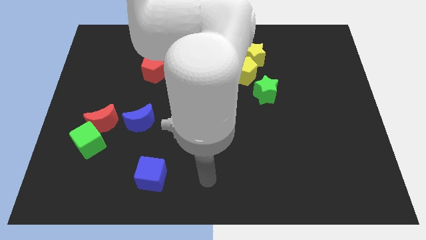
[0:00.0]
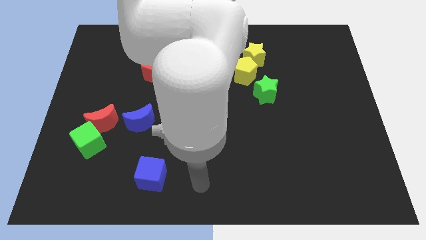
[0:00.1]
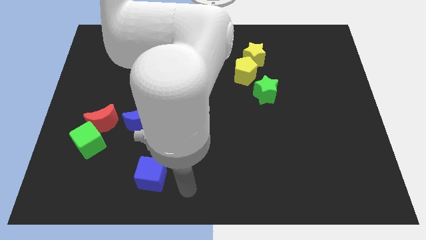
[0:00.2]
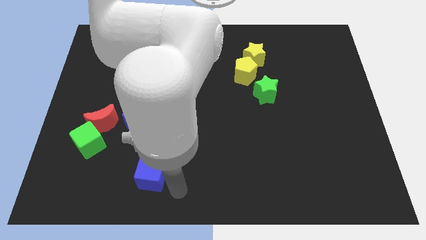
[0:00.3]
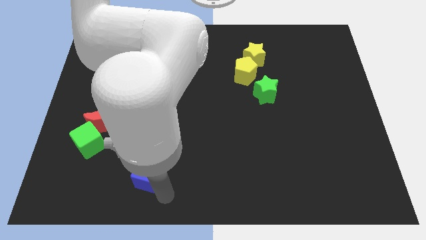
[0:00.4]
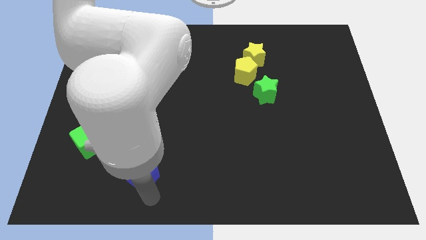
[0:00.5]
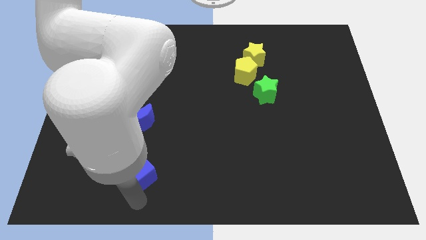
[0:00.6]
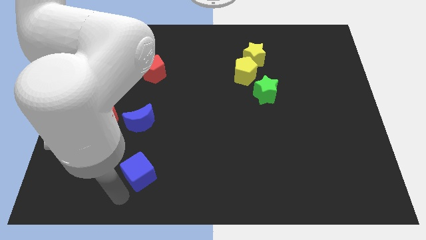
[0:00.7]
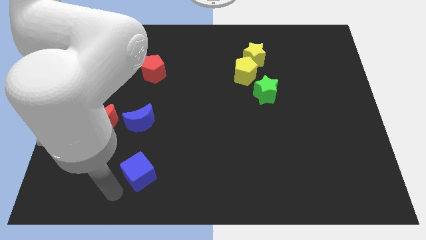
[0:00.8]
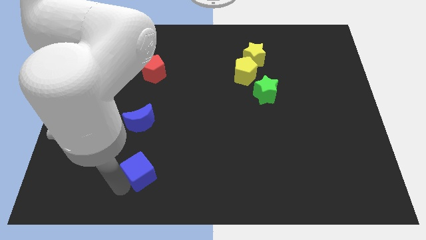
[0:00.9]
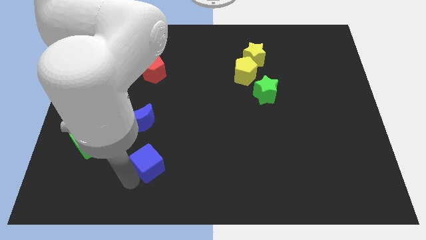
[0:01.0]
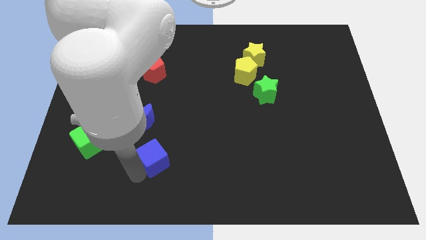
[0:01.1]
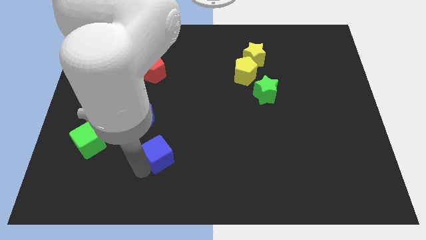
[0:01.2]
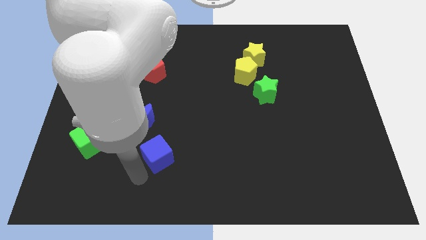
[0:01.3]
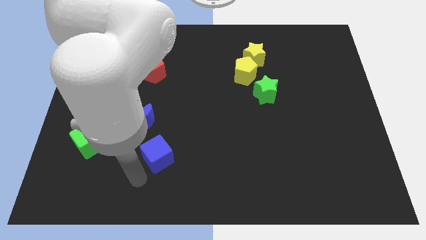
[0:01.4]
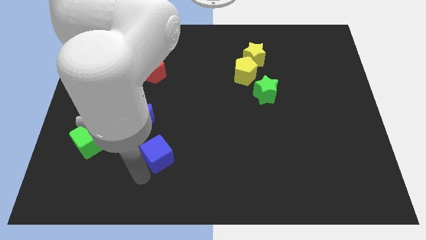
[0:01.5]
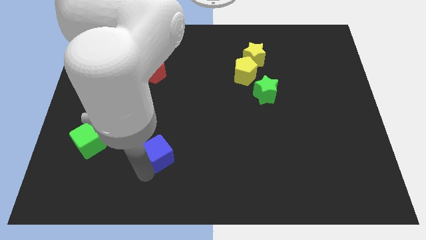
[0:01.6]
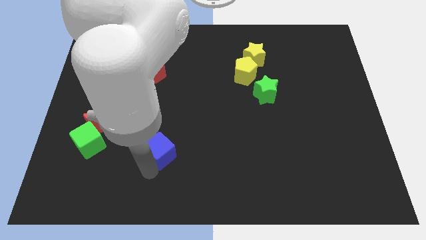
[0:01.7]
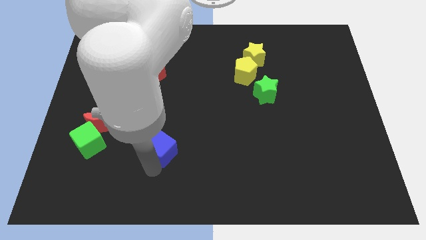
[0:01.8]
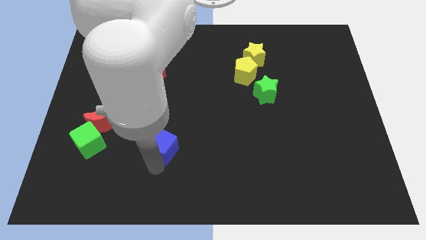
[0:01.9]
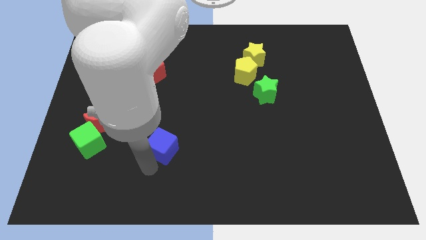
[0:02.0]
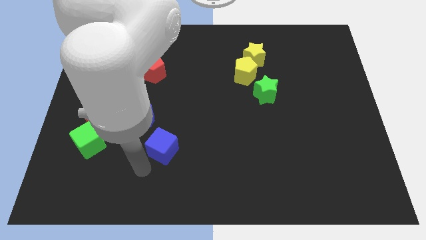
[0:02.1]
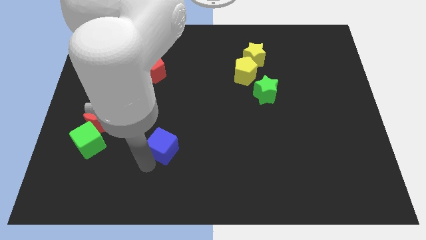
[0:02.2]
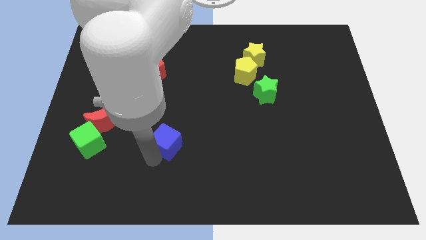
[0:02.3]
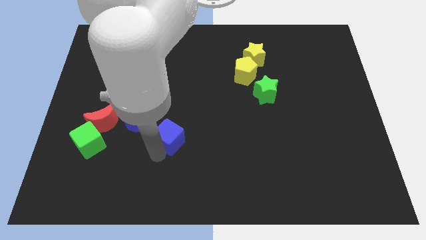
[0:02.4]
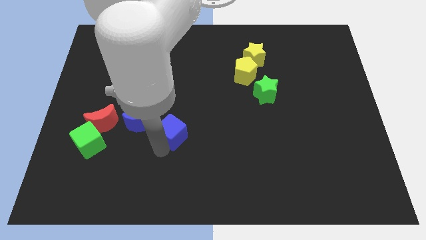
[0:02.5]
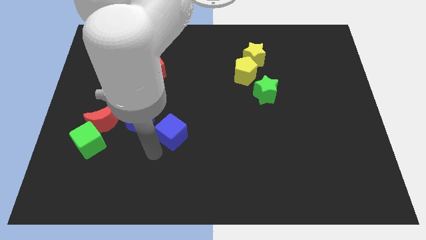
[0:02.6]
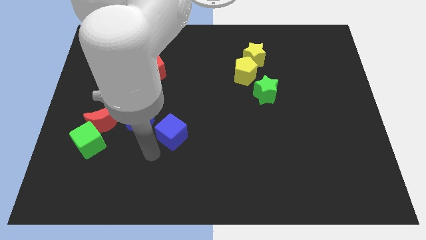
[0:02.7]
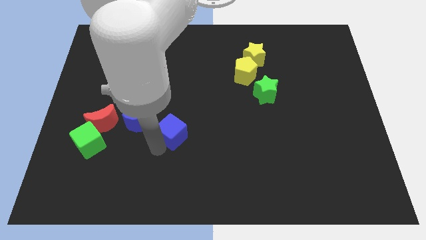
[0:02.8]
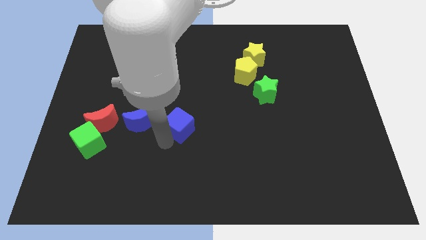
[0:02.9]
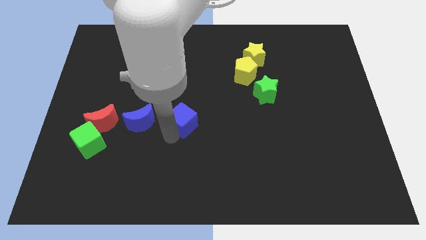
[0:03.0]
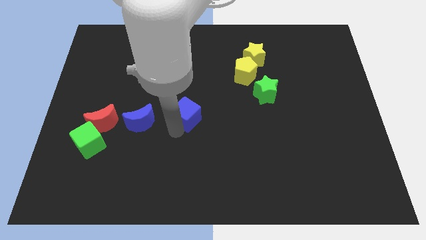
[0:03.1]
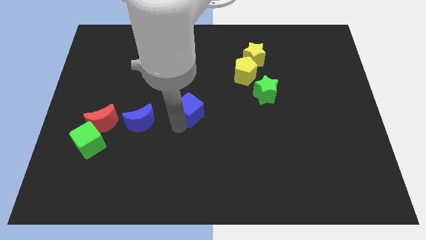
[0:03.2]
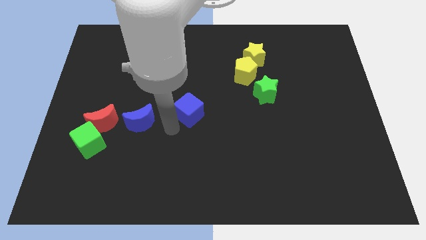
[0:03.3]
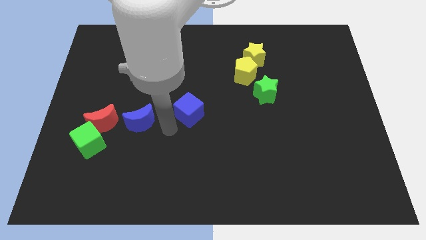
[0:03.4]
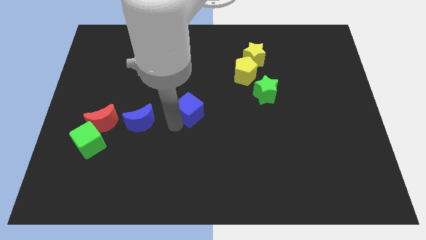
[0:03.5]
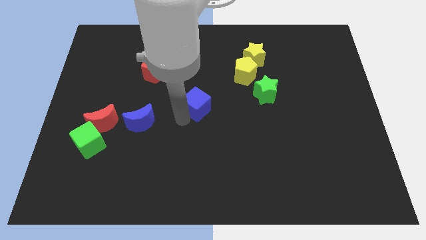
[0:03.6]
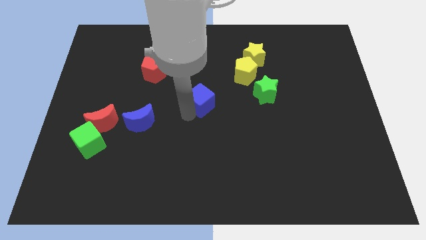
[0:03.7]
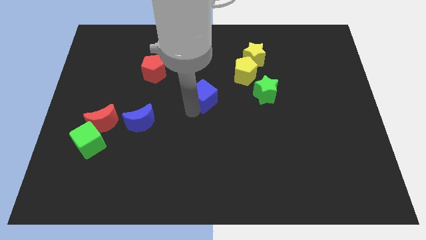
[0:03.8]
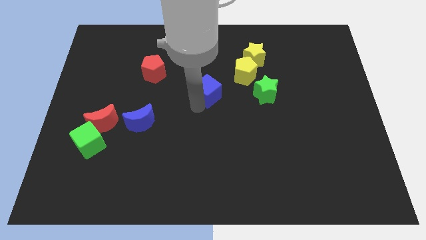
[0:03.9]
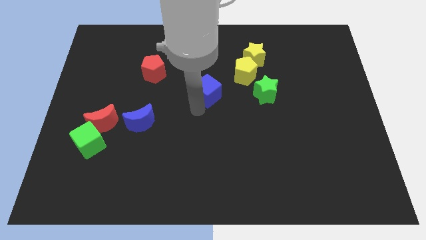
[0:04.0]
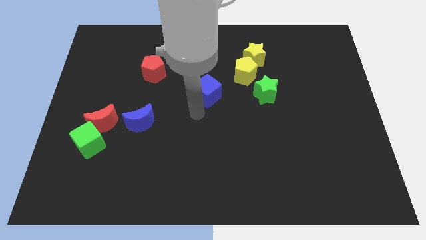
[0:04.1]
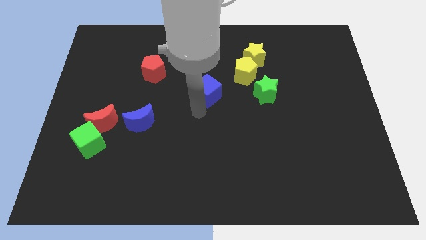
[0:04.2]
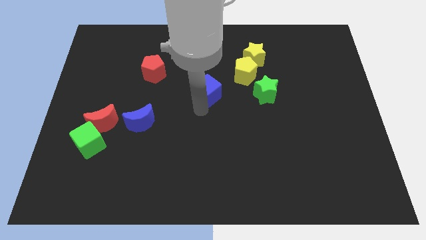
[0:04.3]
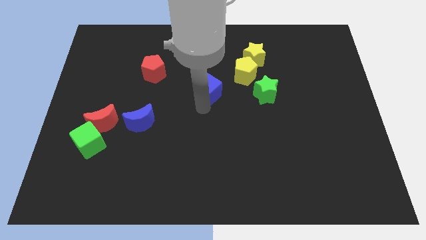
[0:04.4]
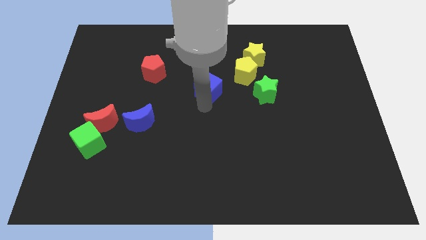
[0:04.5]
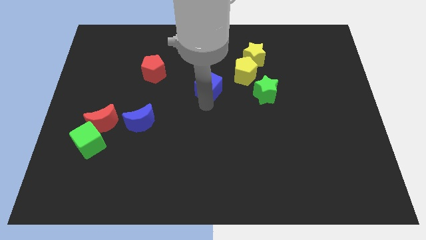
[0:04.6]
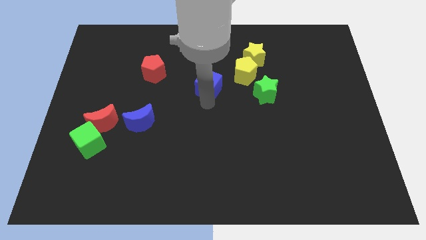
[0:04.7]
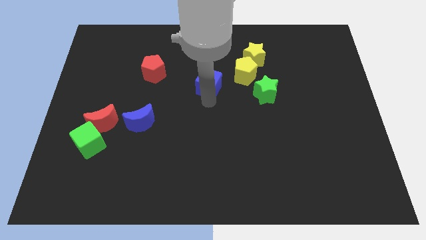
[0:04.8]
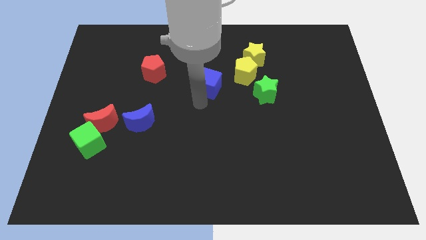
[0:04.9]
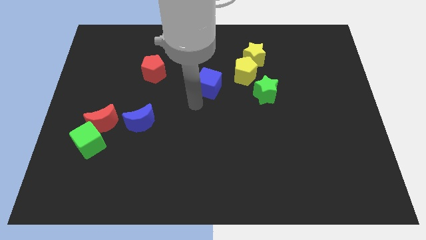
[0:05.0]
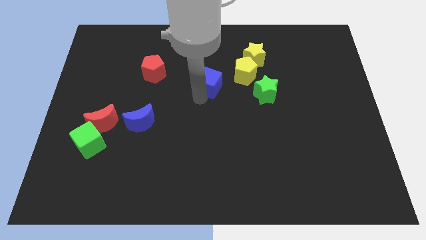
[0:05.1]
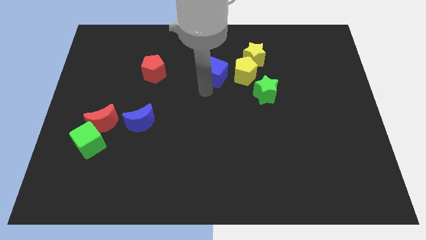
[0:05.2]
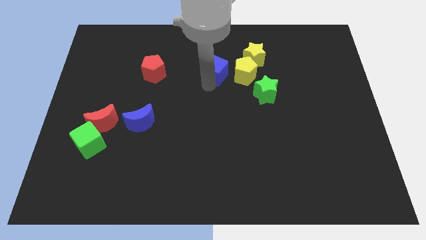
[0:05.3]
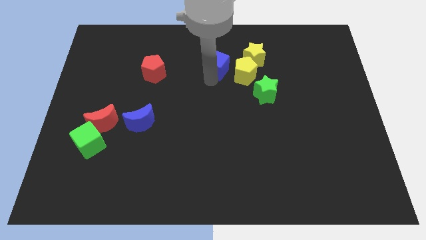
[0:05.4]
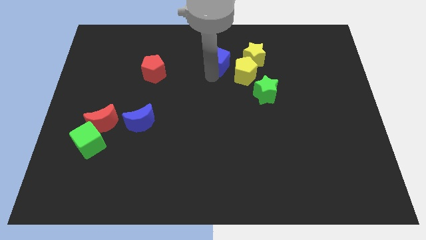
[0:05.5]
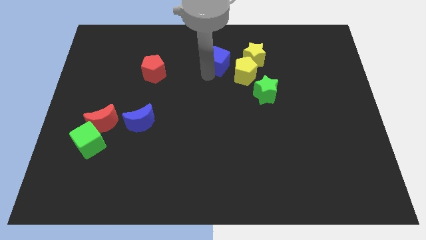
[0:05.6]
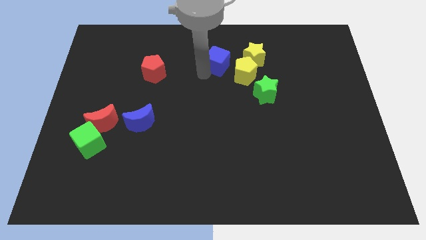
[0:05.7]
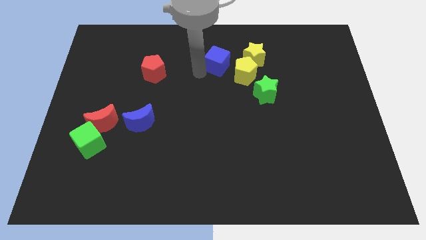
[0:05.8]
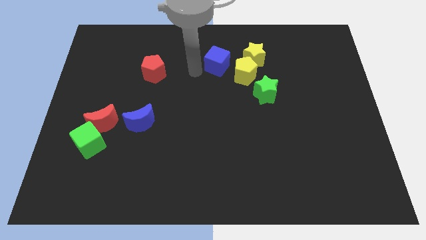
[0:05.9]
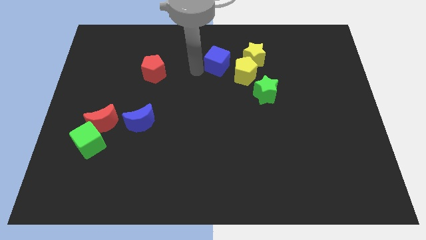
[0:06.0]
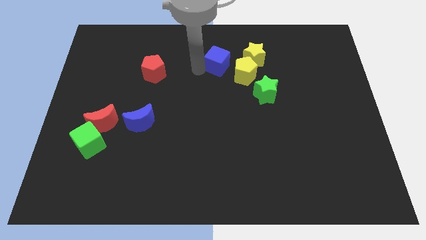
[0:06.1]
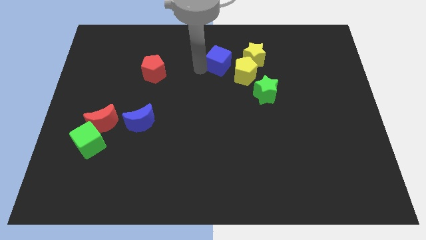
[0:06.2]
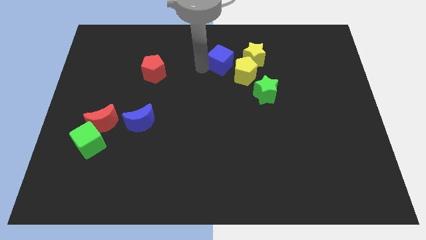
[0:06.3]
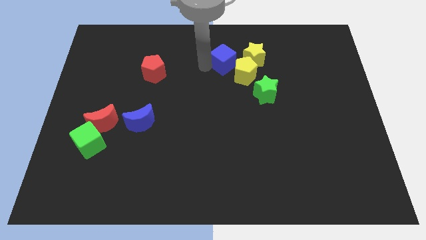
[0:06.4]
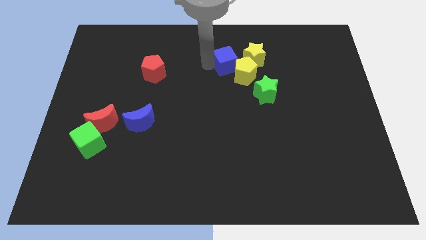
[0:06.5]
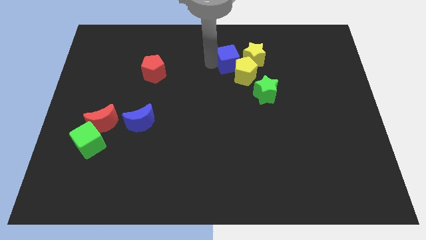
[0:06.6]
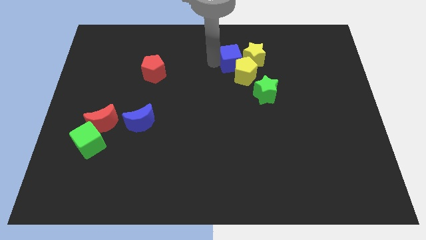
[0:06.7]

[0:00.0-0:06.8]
push the blue cube towards the yellow star

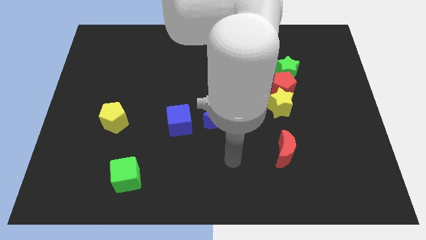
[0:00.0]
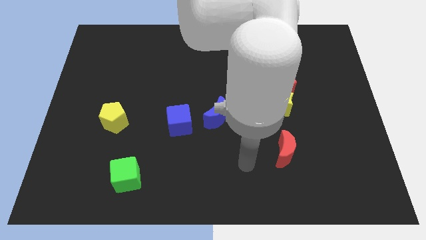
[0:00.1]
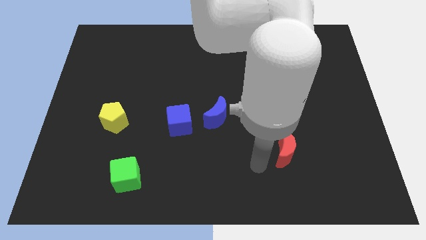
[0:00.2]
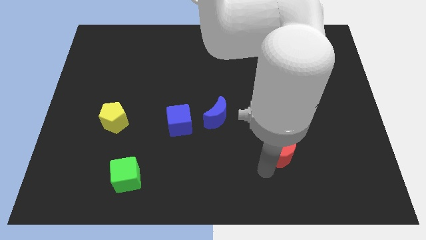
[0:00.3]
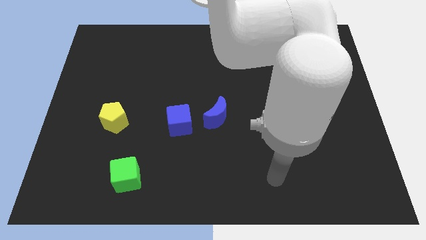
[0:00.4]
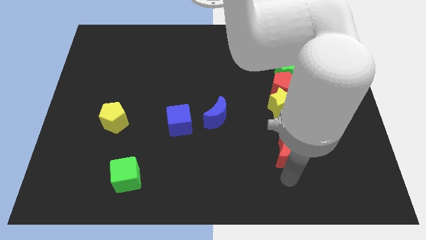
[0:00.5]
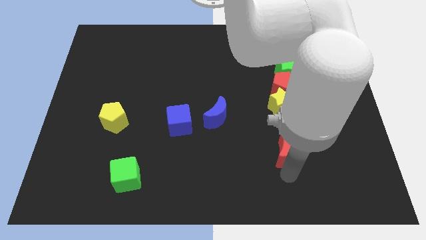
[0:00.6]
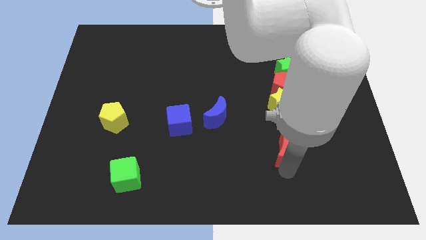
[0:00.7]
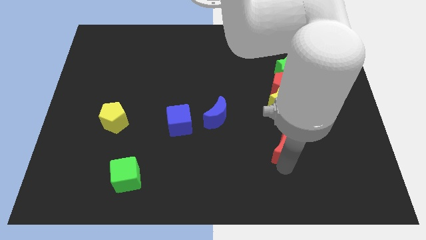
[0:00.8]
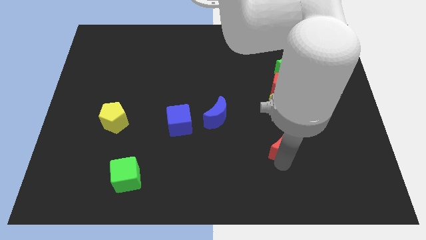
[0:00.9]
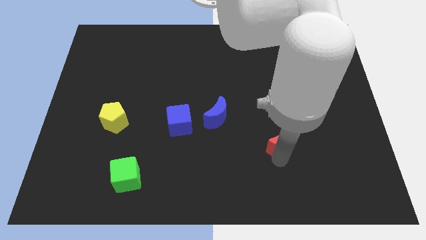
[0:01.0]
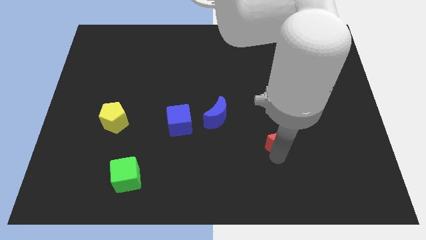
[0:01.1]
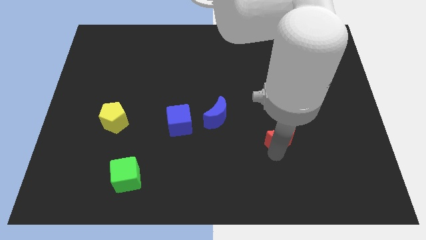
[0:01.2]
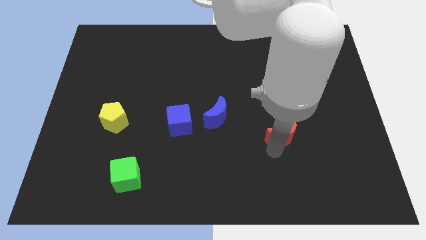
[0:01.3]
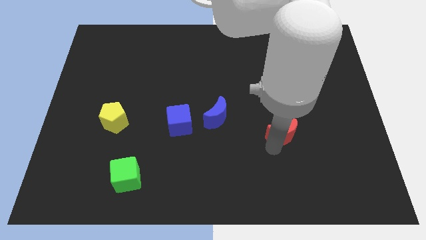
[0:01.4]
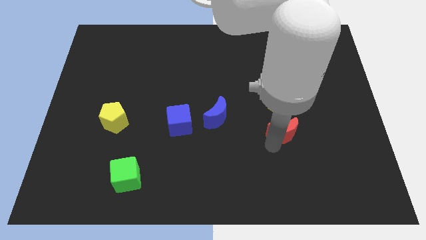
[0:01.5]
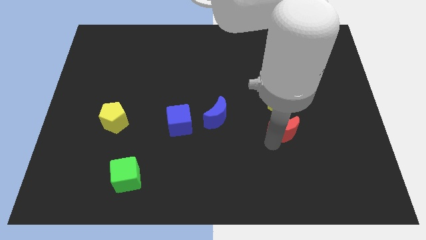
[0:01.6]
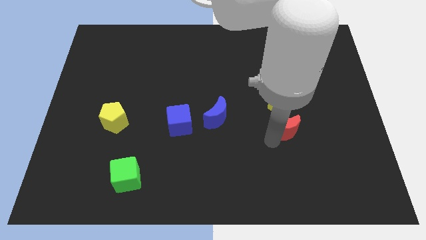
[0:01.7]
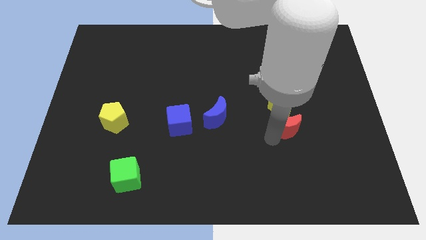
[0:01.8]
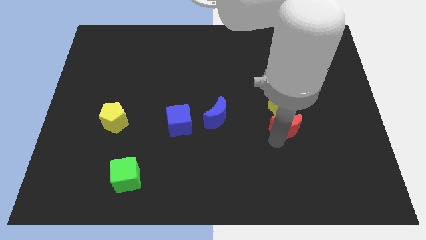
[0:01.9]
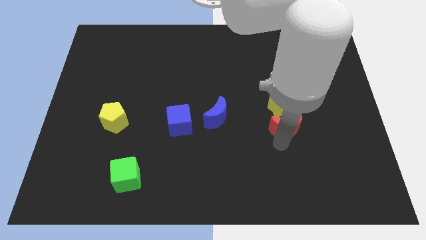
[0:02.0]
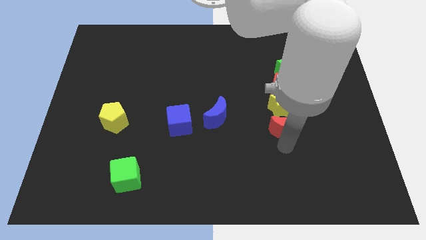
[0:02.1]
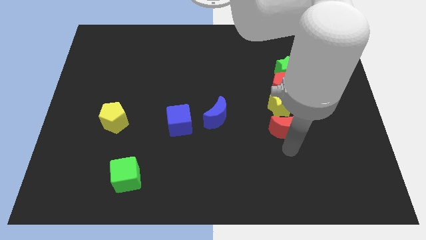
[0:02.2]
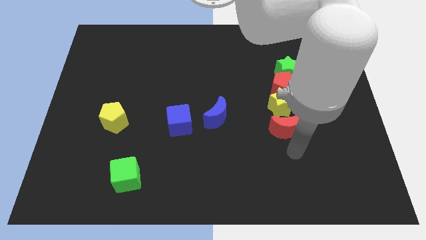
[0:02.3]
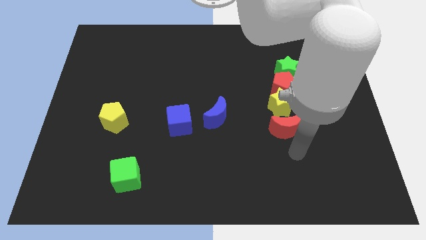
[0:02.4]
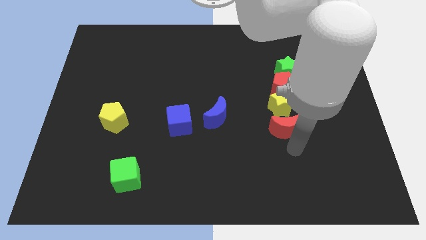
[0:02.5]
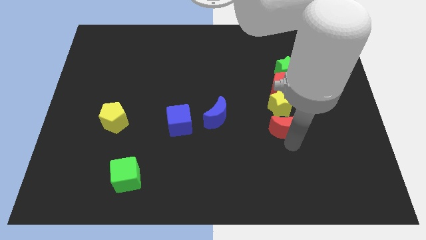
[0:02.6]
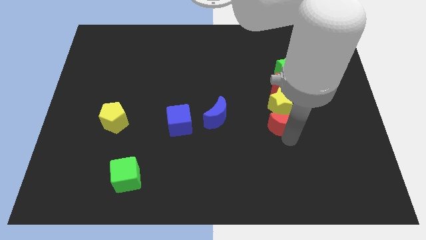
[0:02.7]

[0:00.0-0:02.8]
put the red moon close to the yellow star
